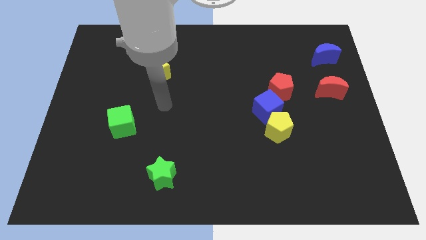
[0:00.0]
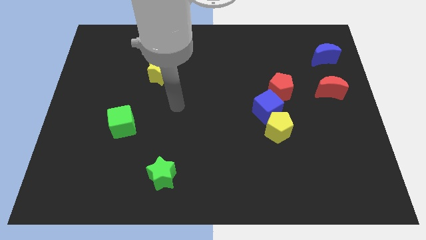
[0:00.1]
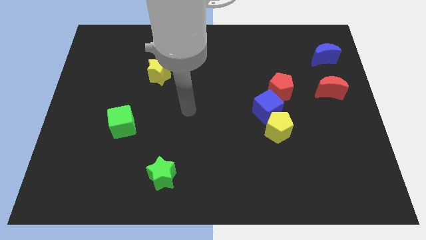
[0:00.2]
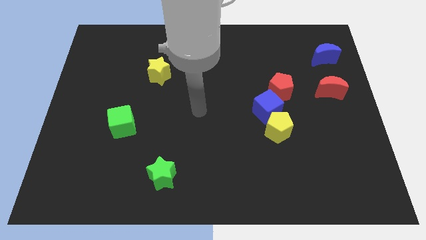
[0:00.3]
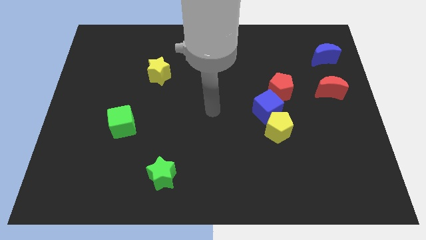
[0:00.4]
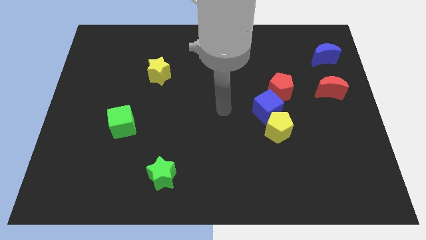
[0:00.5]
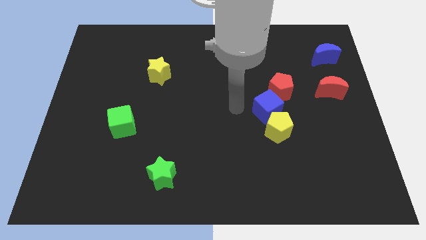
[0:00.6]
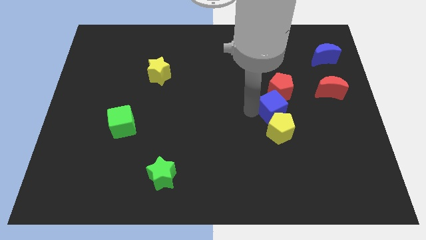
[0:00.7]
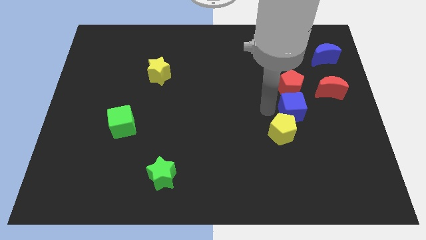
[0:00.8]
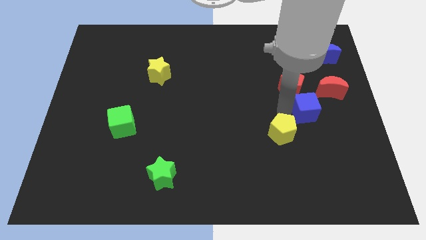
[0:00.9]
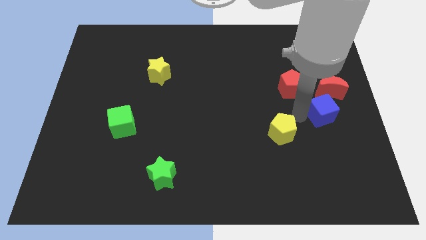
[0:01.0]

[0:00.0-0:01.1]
separate the yellow pentagon from the blue cube

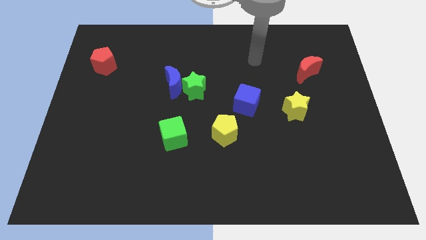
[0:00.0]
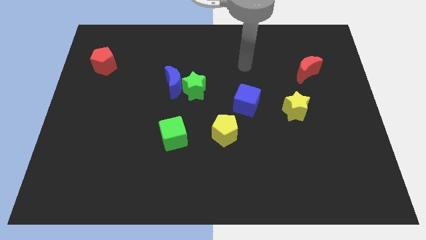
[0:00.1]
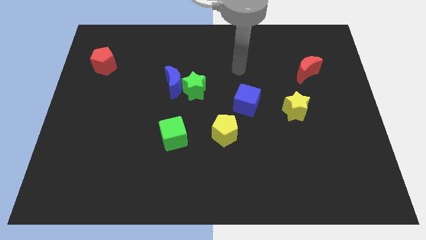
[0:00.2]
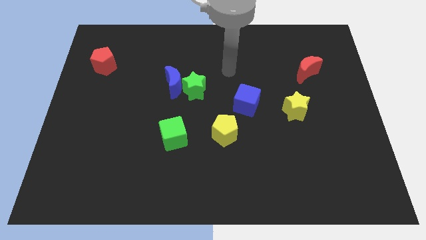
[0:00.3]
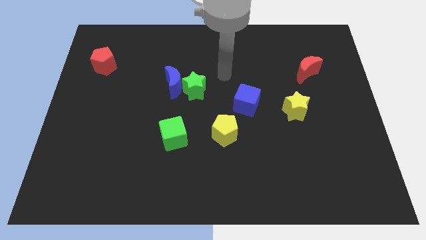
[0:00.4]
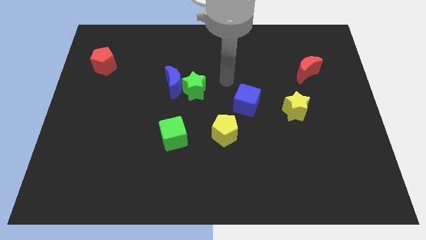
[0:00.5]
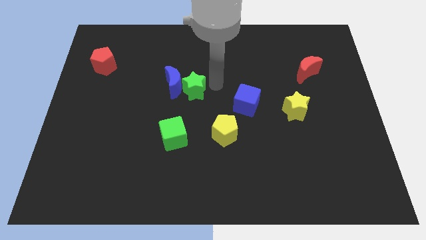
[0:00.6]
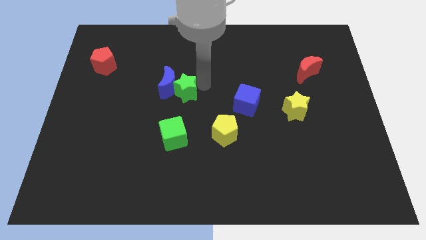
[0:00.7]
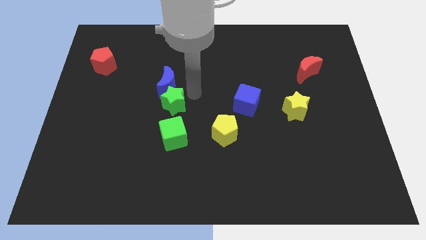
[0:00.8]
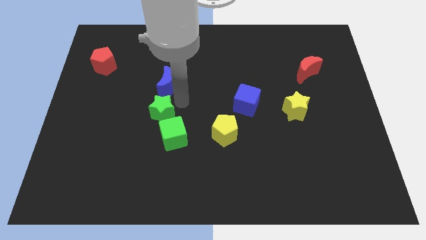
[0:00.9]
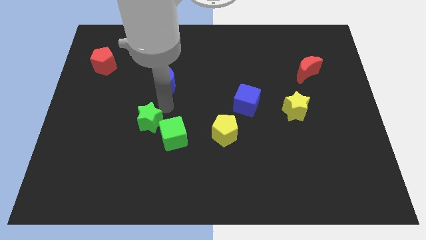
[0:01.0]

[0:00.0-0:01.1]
separate the blue moon from the green star

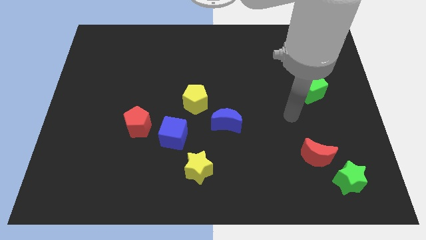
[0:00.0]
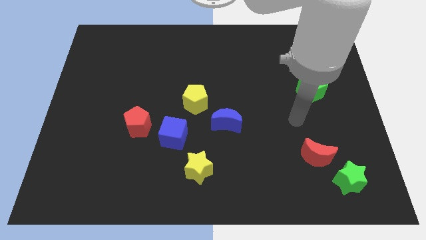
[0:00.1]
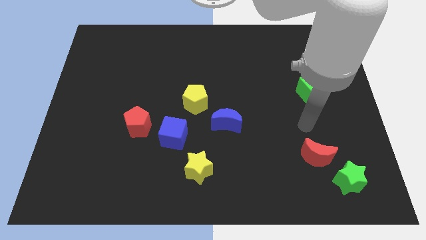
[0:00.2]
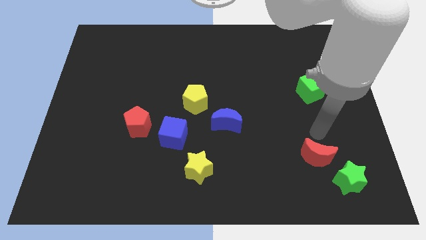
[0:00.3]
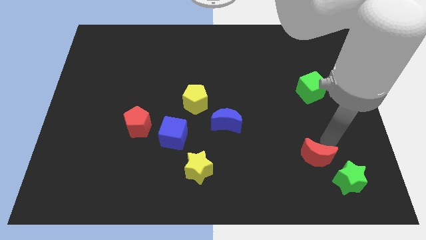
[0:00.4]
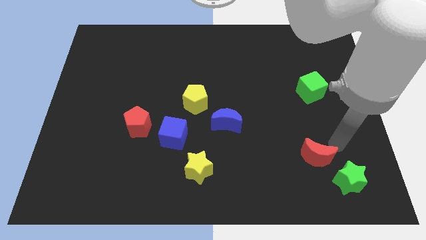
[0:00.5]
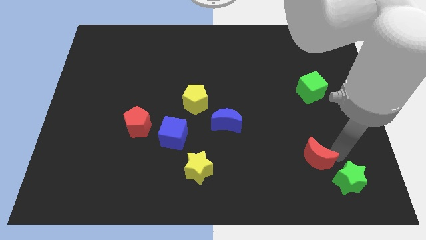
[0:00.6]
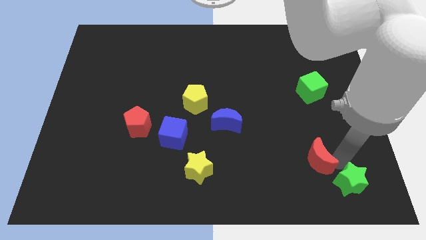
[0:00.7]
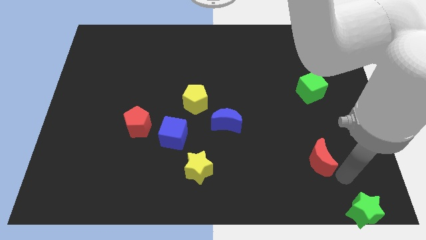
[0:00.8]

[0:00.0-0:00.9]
move the red moon away from the green star

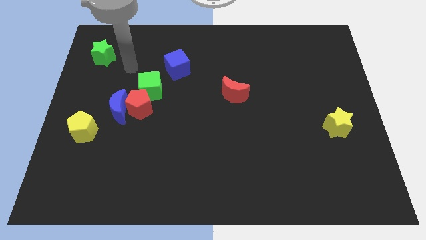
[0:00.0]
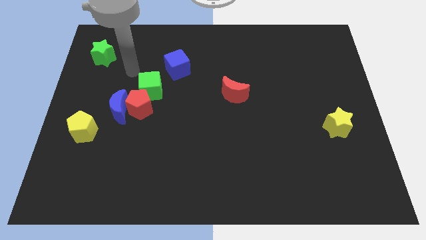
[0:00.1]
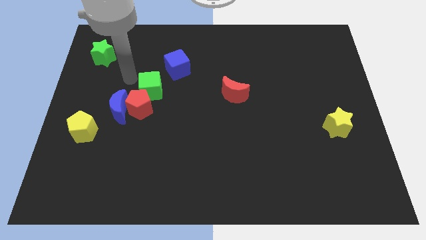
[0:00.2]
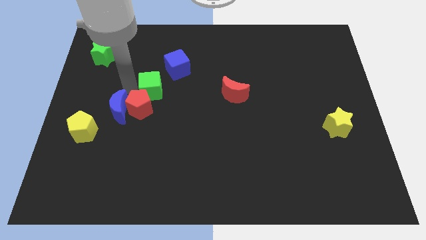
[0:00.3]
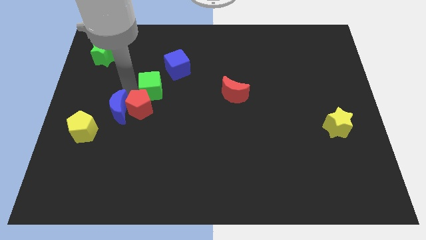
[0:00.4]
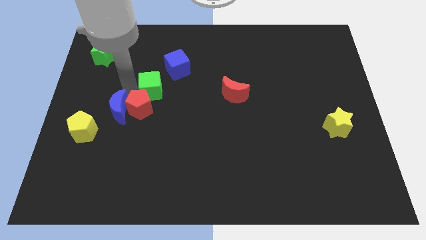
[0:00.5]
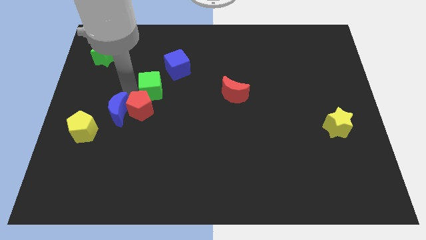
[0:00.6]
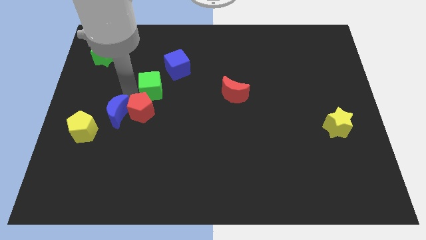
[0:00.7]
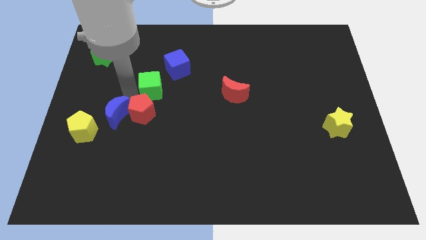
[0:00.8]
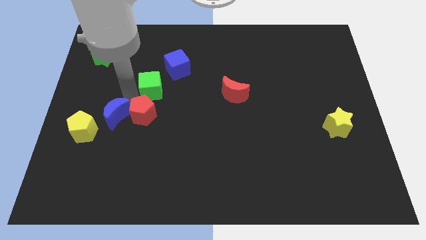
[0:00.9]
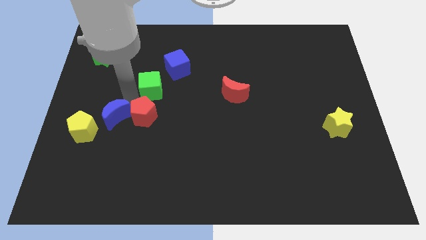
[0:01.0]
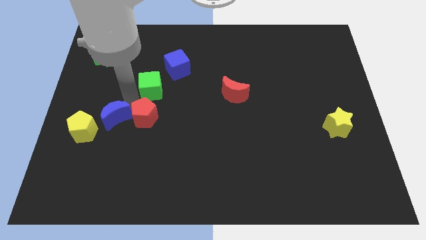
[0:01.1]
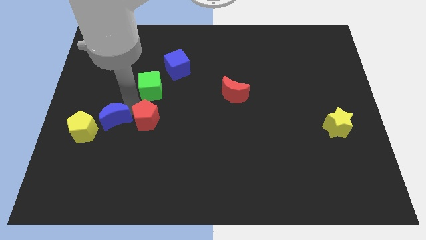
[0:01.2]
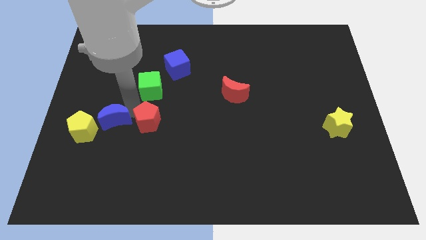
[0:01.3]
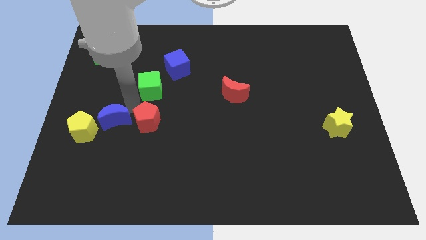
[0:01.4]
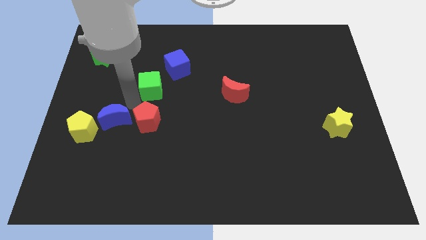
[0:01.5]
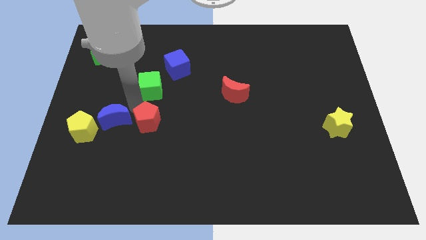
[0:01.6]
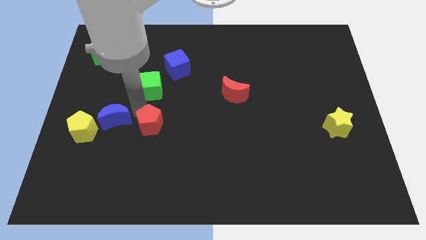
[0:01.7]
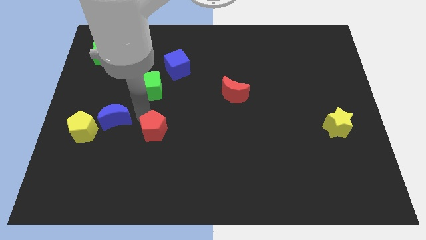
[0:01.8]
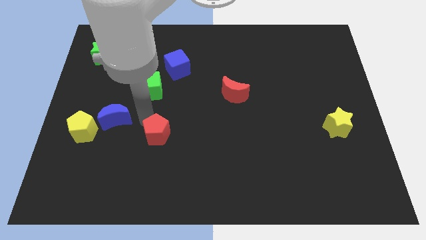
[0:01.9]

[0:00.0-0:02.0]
move the red pentagon away from the blue moon and green cube

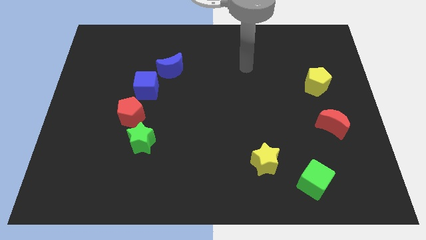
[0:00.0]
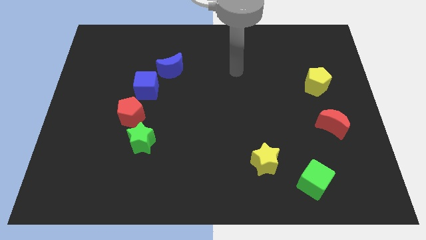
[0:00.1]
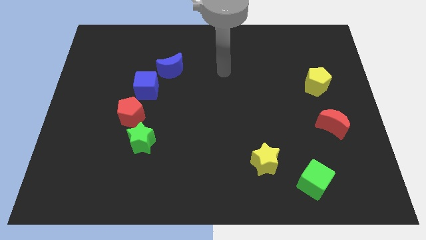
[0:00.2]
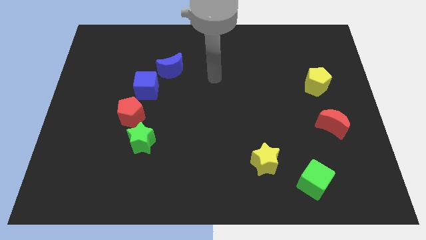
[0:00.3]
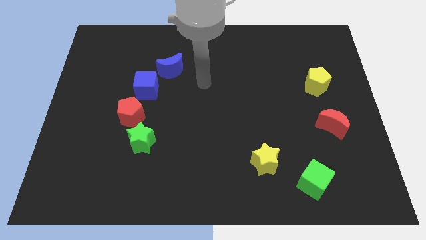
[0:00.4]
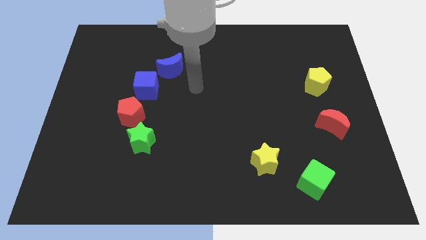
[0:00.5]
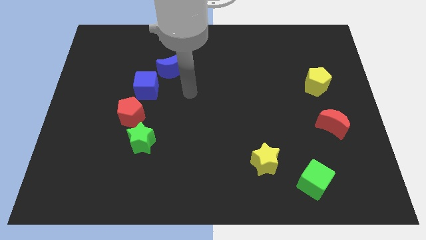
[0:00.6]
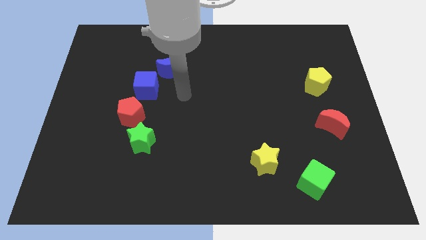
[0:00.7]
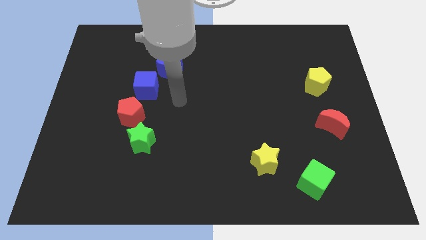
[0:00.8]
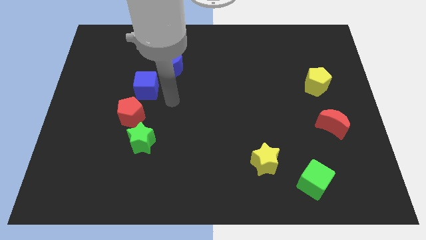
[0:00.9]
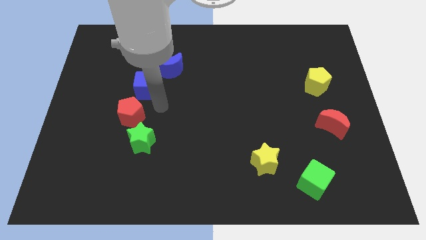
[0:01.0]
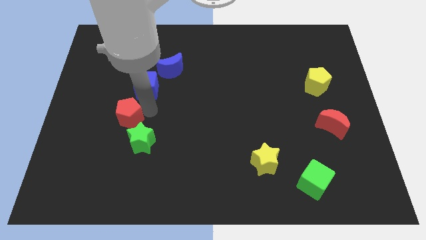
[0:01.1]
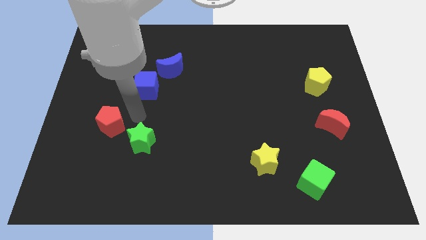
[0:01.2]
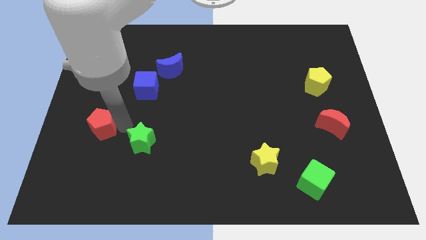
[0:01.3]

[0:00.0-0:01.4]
pull the green star apart from the red pentagon

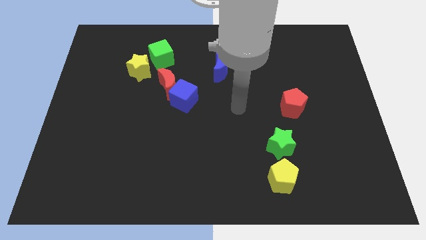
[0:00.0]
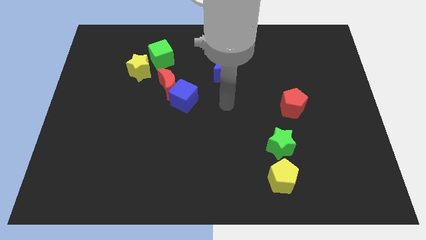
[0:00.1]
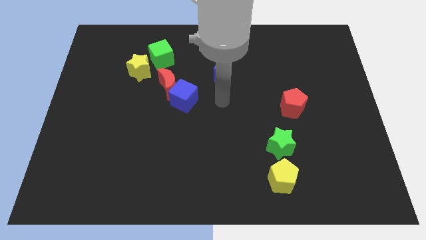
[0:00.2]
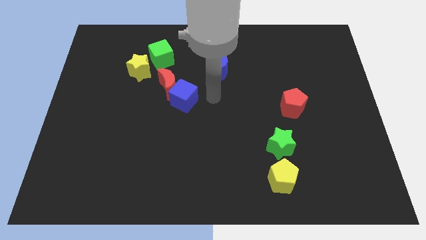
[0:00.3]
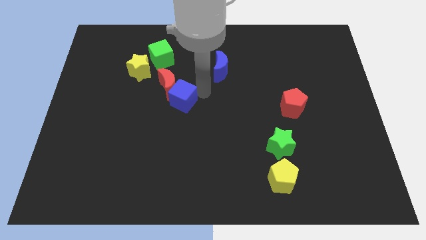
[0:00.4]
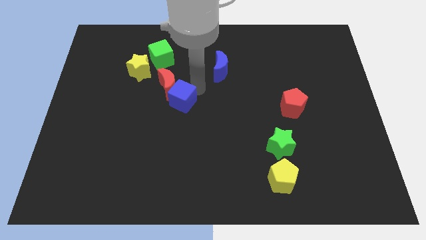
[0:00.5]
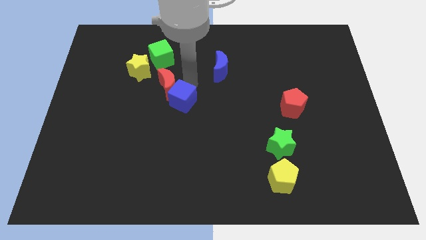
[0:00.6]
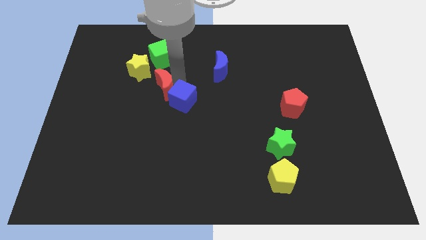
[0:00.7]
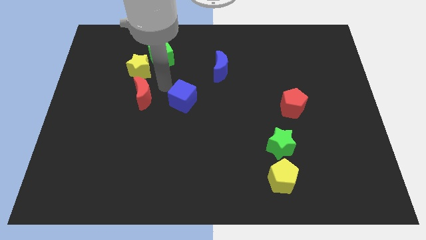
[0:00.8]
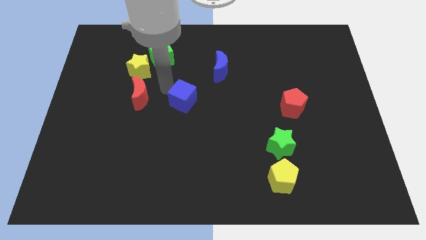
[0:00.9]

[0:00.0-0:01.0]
move the blue cube away from the red moon

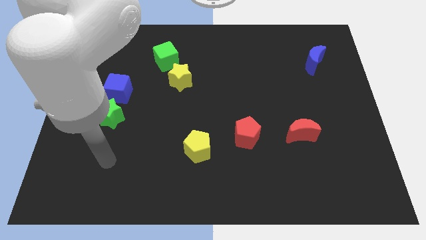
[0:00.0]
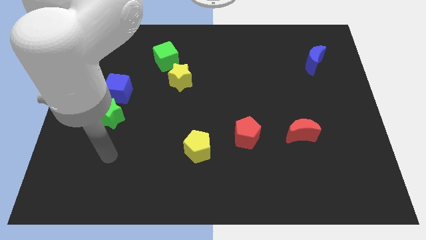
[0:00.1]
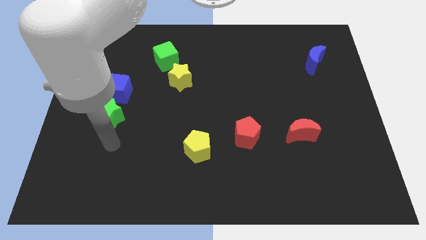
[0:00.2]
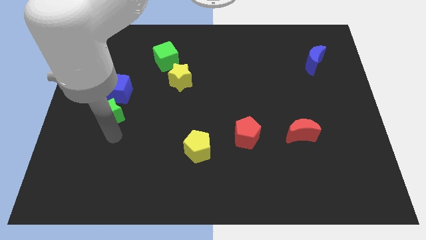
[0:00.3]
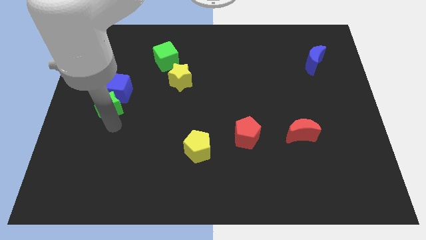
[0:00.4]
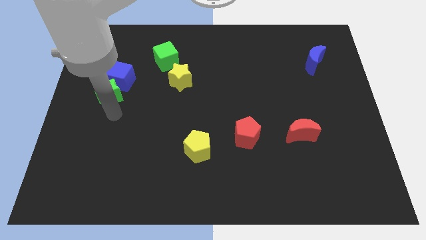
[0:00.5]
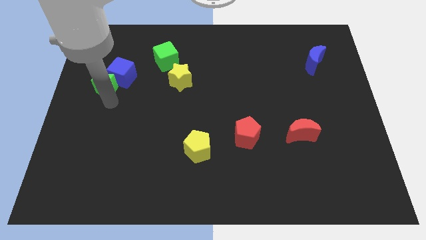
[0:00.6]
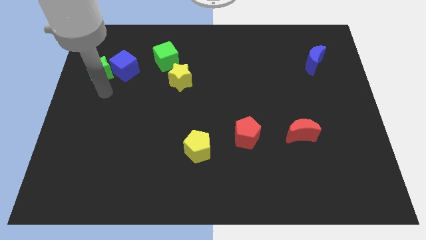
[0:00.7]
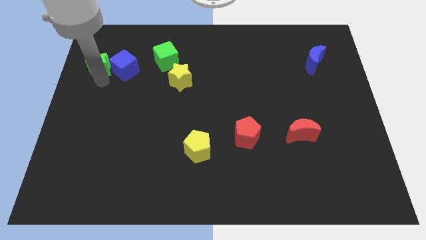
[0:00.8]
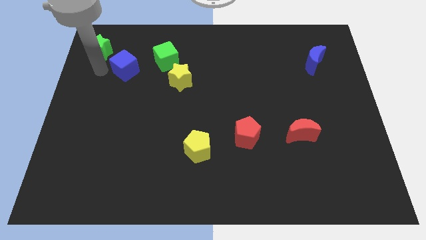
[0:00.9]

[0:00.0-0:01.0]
pull the blue cube apart from the green star

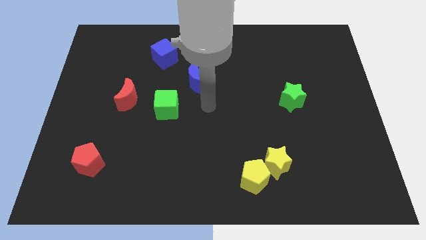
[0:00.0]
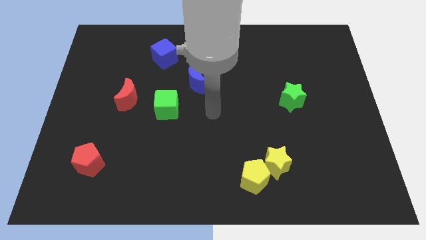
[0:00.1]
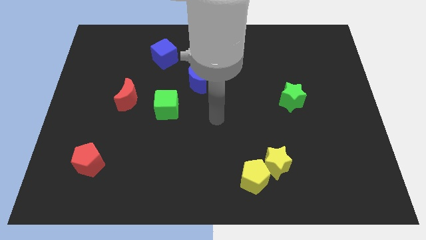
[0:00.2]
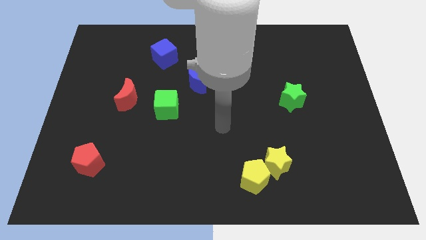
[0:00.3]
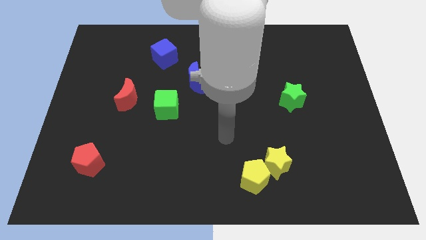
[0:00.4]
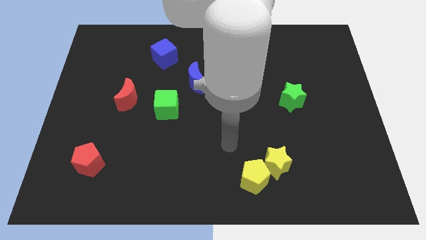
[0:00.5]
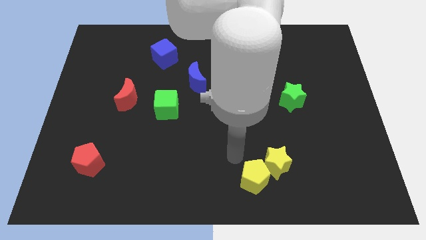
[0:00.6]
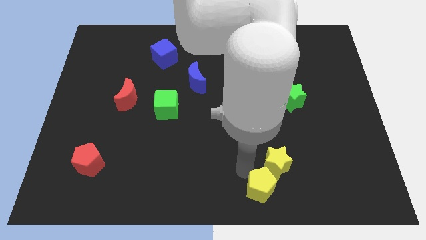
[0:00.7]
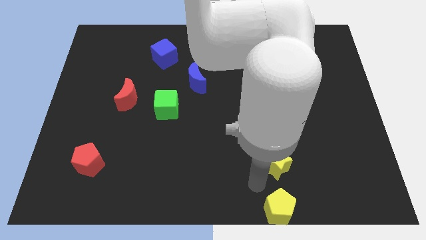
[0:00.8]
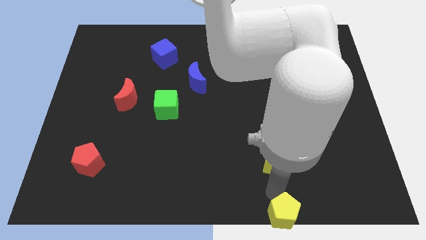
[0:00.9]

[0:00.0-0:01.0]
separate the yellow star from the yellow pentagon
